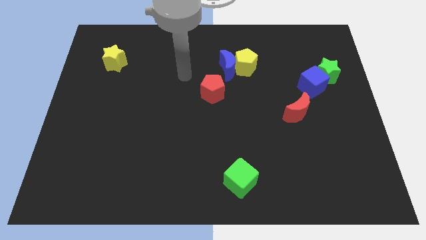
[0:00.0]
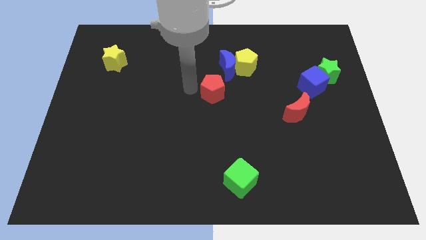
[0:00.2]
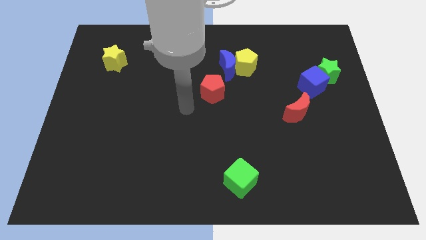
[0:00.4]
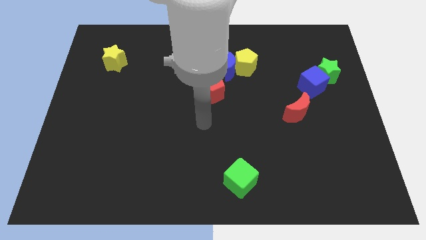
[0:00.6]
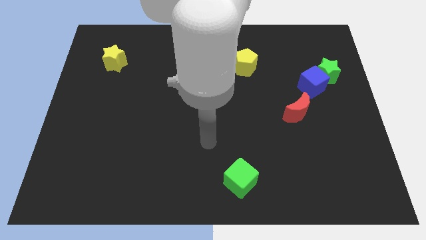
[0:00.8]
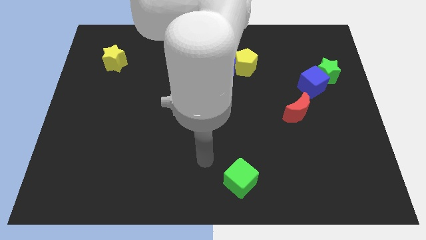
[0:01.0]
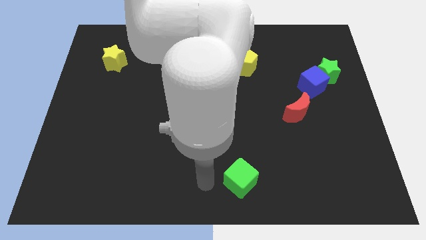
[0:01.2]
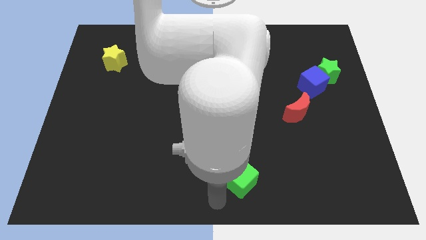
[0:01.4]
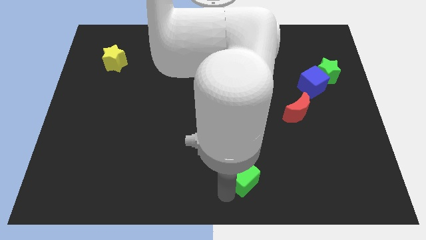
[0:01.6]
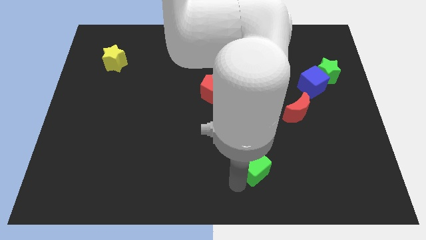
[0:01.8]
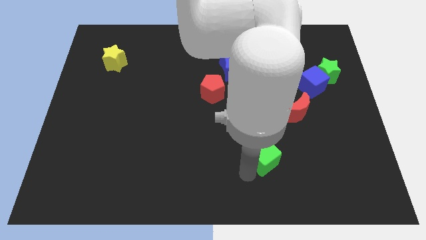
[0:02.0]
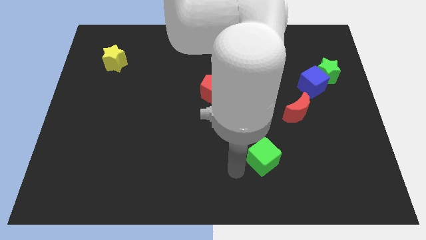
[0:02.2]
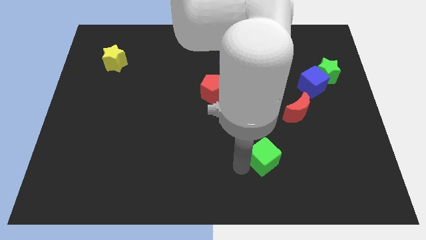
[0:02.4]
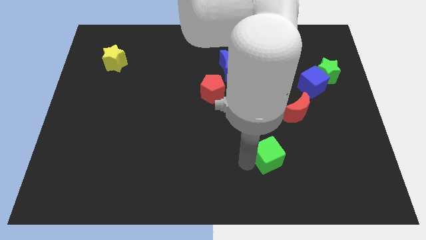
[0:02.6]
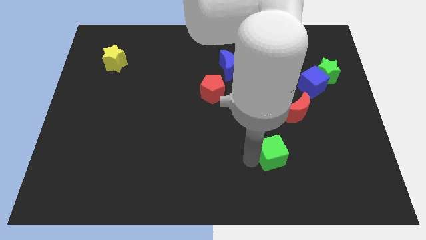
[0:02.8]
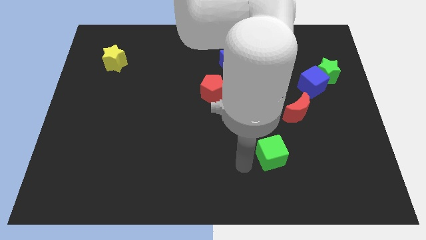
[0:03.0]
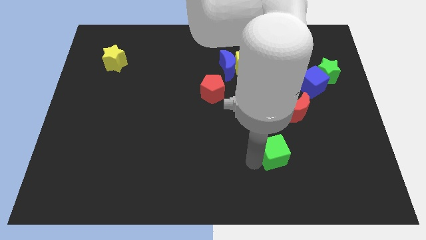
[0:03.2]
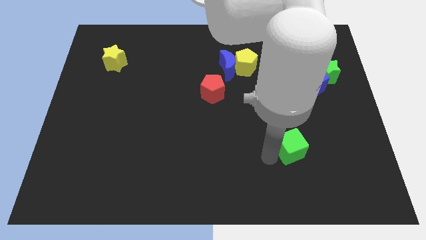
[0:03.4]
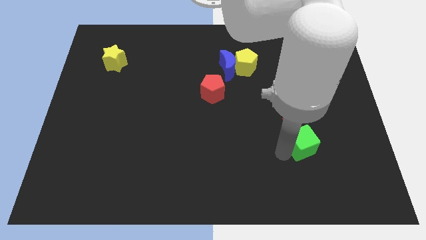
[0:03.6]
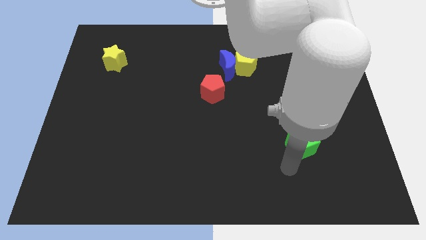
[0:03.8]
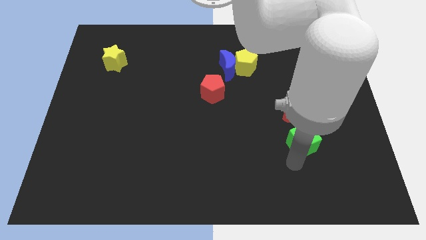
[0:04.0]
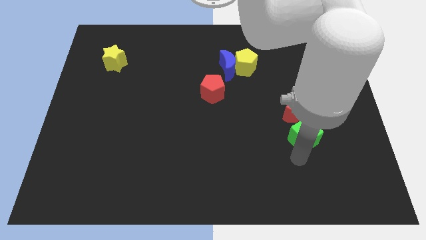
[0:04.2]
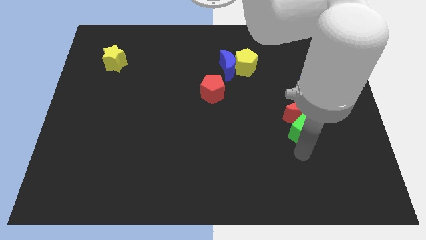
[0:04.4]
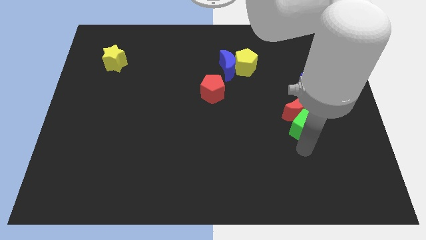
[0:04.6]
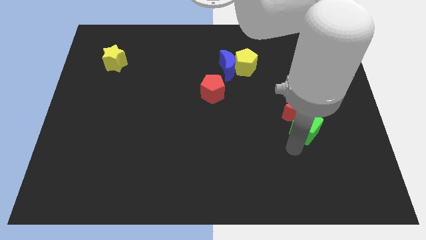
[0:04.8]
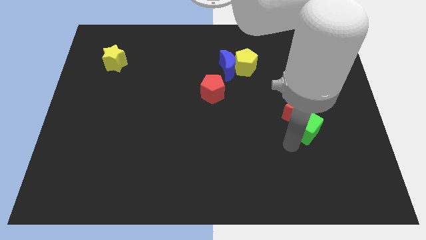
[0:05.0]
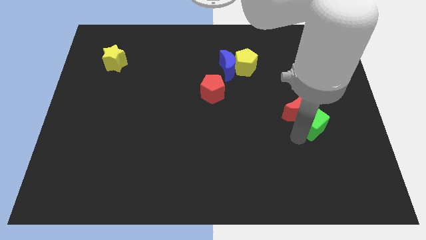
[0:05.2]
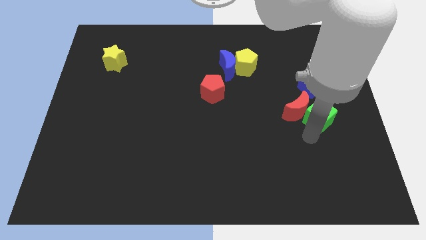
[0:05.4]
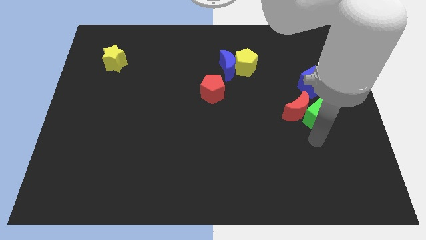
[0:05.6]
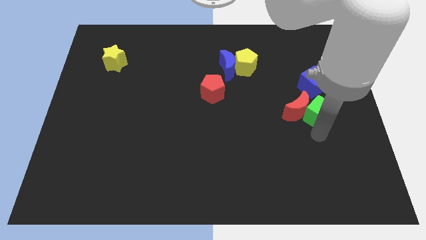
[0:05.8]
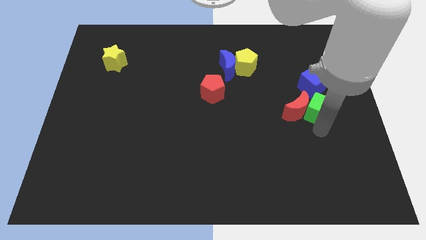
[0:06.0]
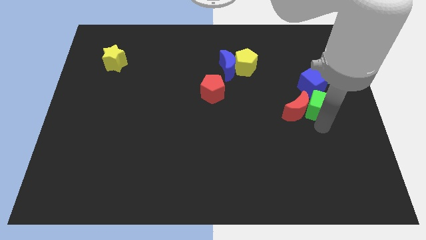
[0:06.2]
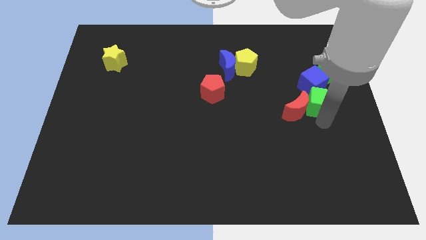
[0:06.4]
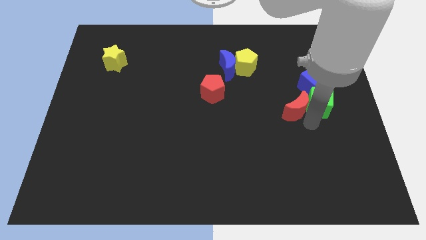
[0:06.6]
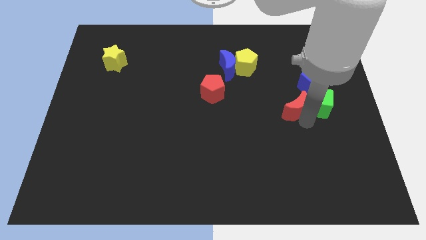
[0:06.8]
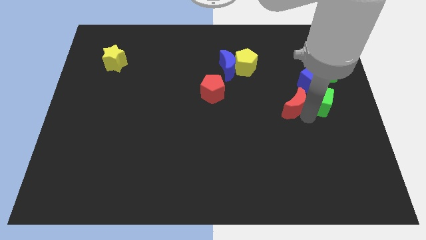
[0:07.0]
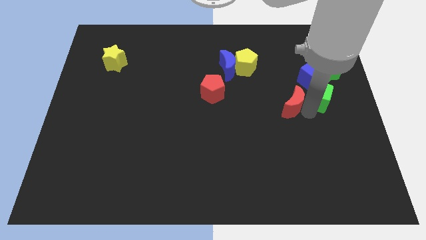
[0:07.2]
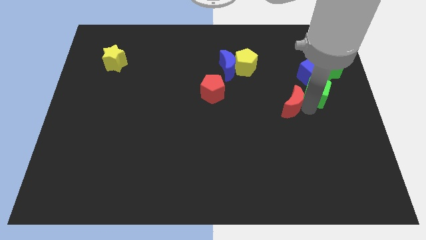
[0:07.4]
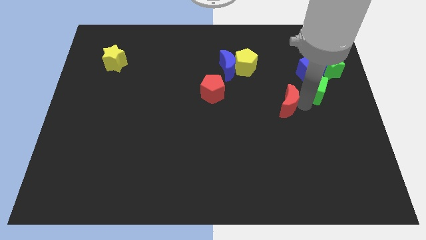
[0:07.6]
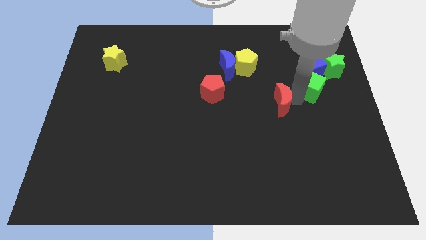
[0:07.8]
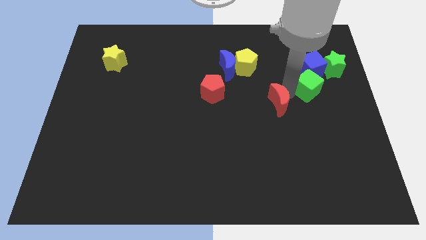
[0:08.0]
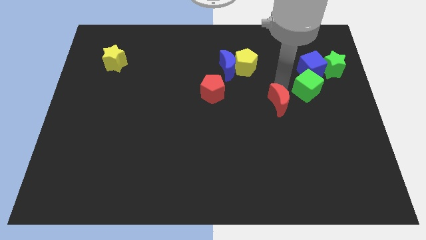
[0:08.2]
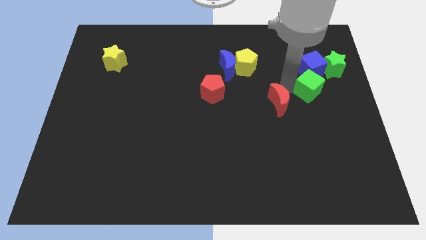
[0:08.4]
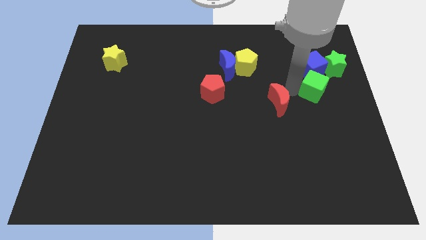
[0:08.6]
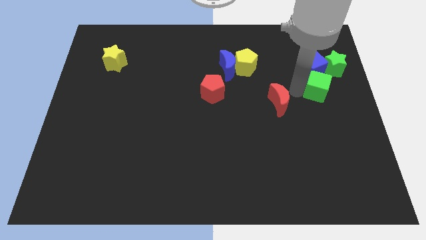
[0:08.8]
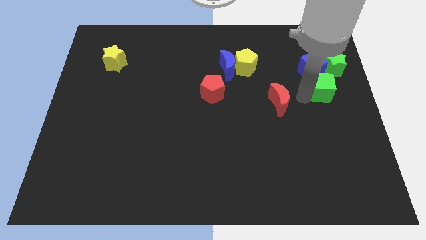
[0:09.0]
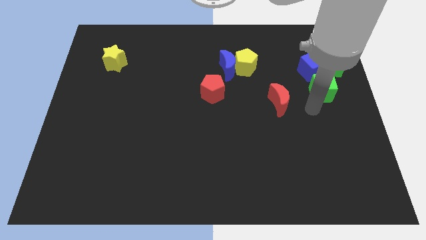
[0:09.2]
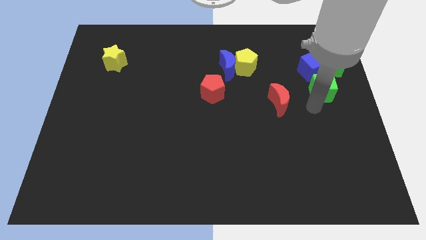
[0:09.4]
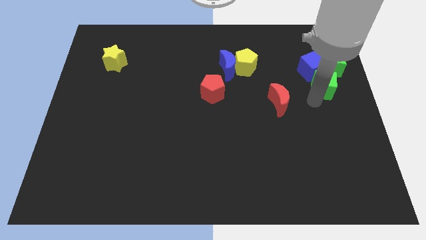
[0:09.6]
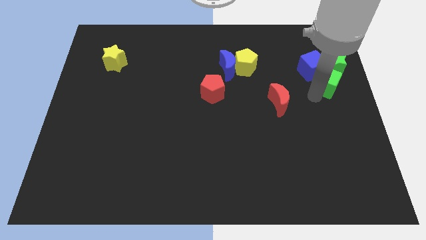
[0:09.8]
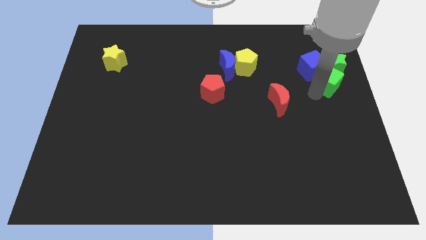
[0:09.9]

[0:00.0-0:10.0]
move the green cube close to the green star

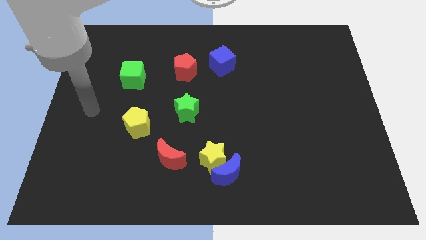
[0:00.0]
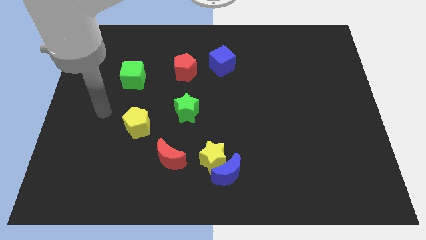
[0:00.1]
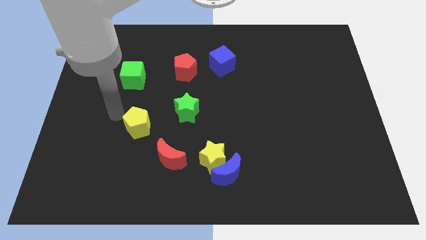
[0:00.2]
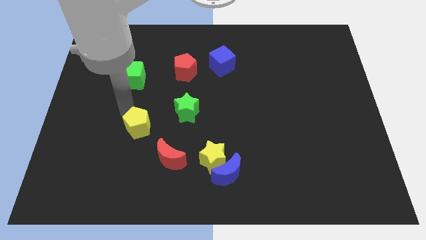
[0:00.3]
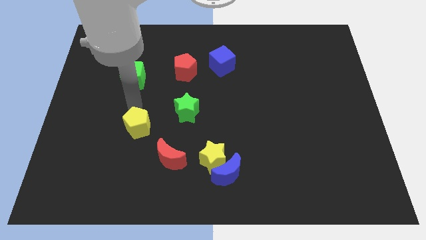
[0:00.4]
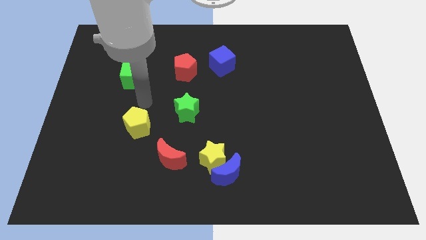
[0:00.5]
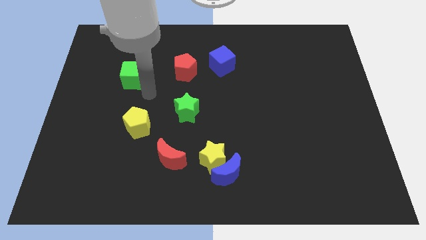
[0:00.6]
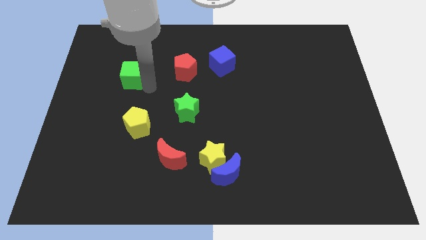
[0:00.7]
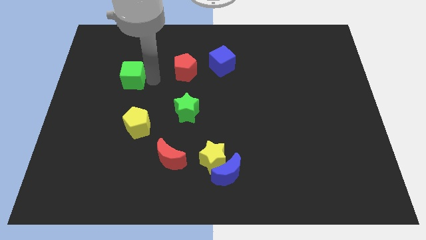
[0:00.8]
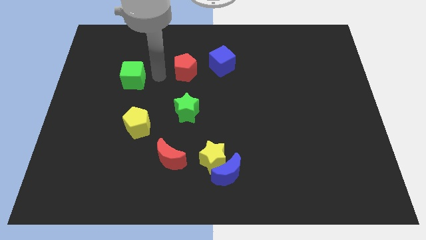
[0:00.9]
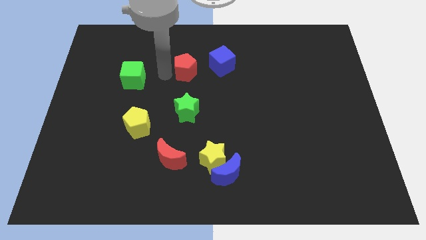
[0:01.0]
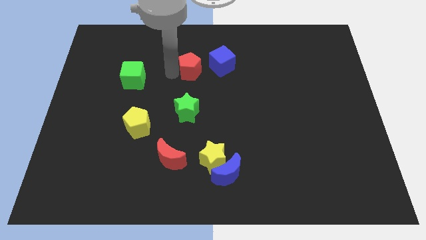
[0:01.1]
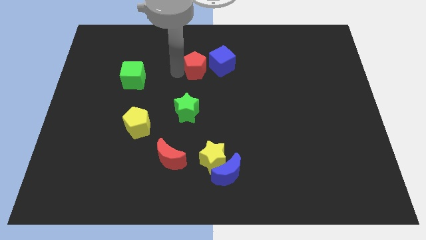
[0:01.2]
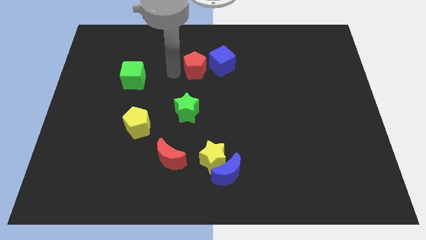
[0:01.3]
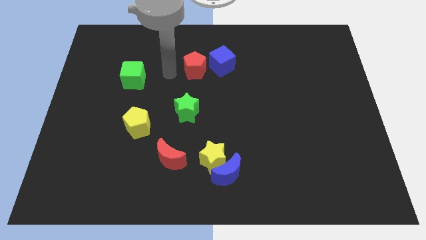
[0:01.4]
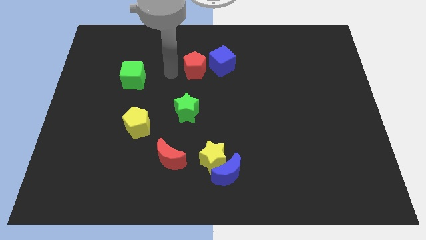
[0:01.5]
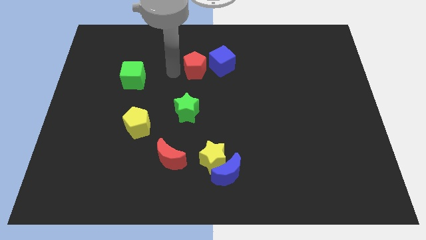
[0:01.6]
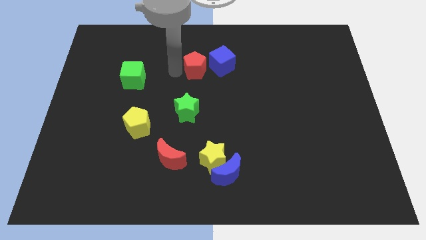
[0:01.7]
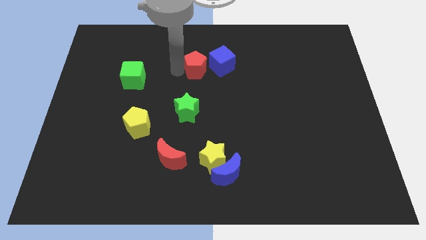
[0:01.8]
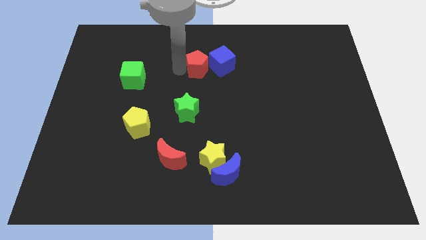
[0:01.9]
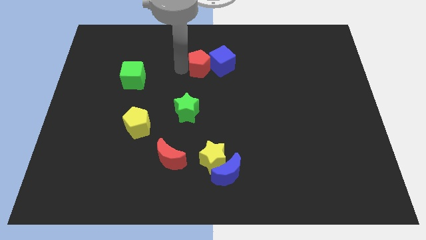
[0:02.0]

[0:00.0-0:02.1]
push the red pentagon close to the blue cube
